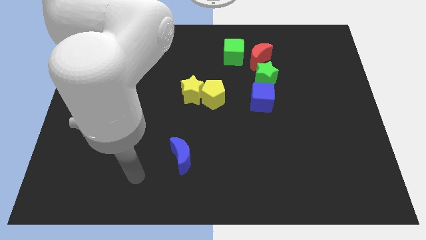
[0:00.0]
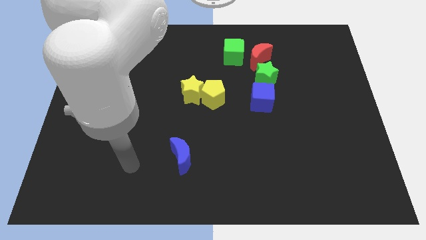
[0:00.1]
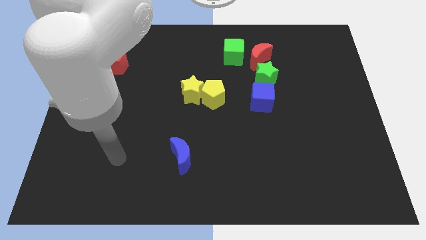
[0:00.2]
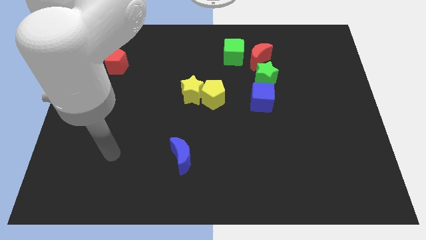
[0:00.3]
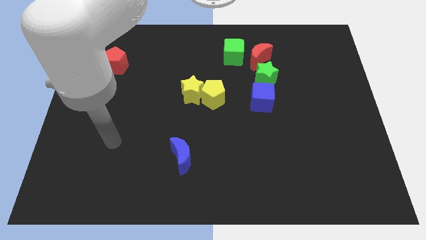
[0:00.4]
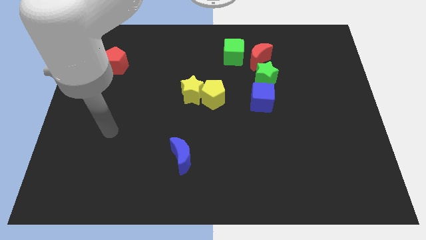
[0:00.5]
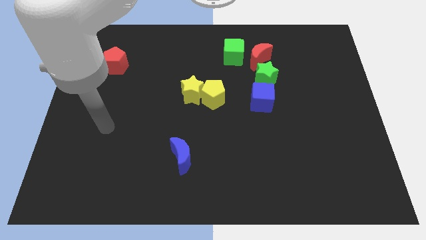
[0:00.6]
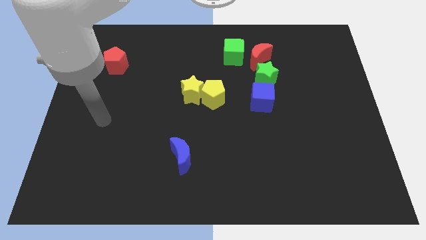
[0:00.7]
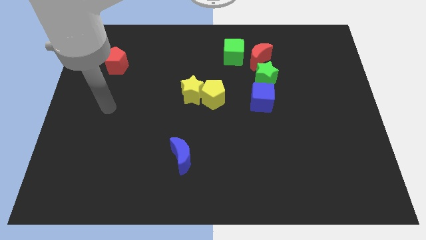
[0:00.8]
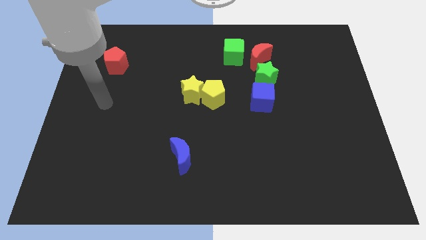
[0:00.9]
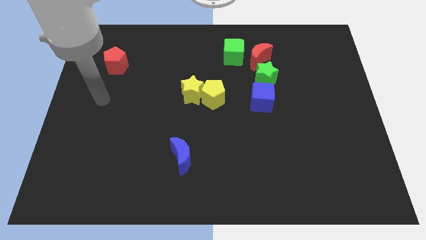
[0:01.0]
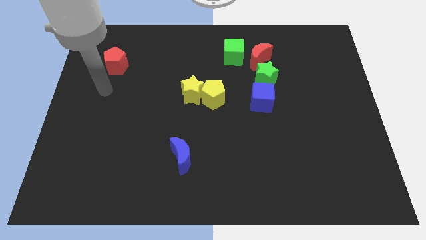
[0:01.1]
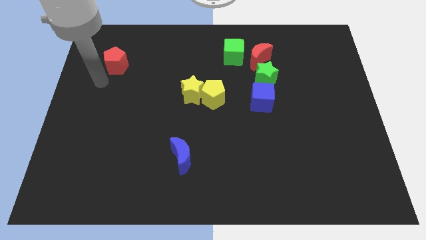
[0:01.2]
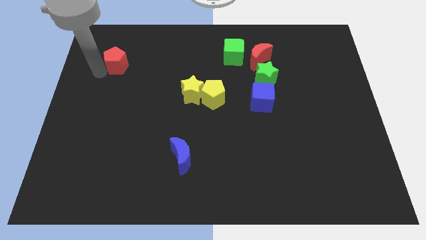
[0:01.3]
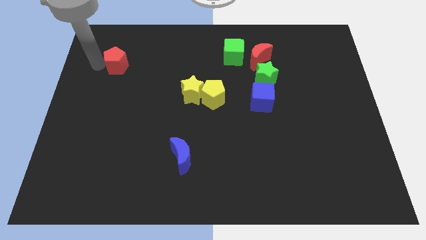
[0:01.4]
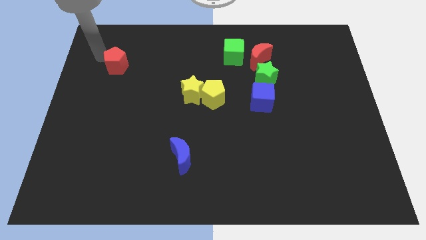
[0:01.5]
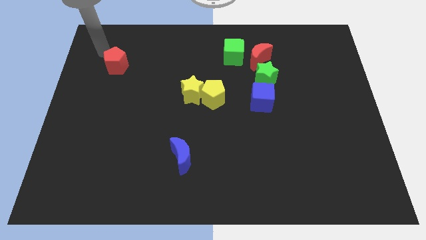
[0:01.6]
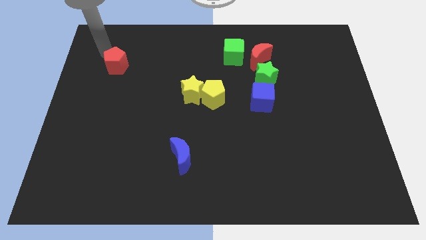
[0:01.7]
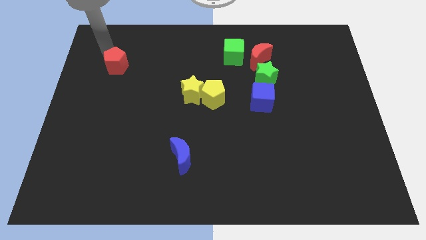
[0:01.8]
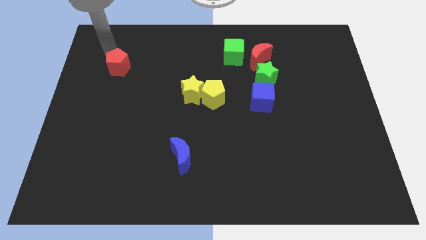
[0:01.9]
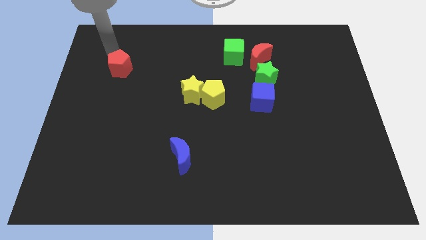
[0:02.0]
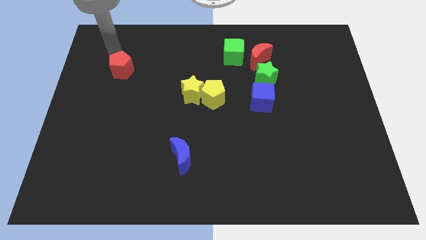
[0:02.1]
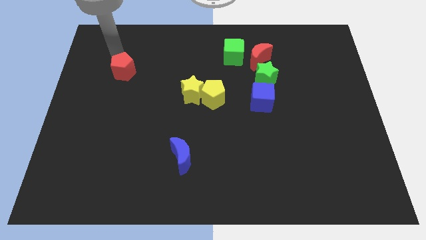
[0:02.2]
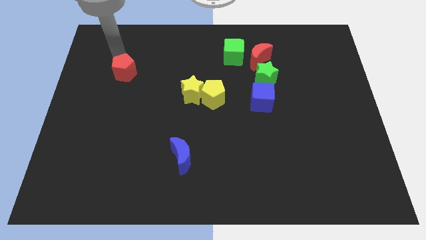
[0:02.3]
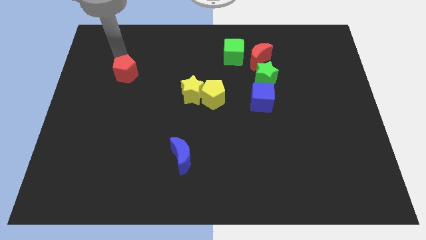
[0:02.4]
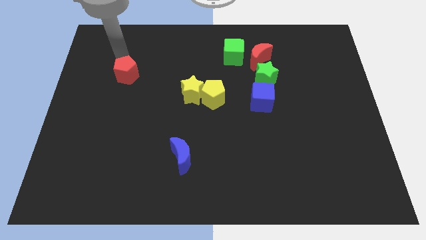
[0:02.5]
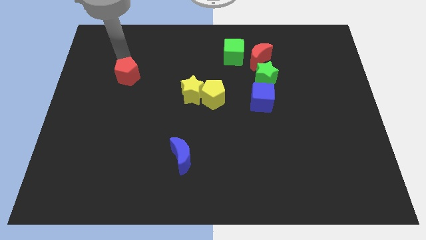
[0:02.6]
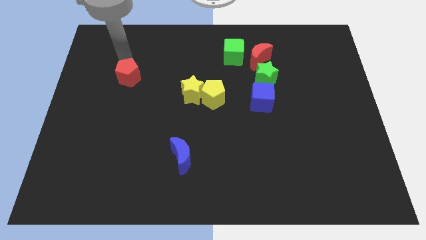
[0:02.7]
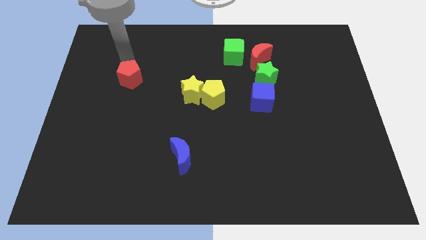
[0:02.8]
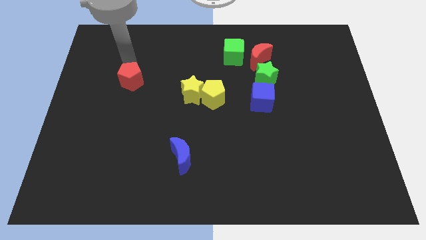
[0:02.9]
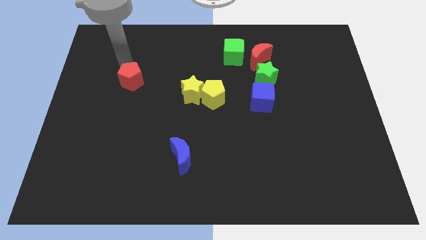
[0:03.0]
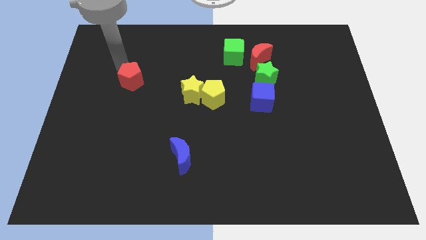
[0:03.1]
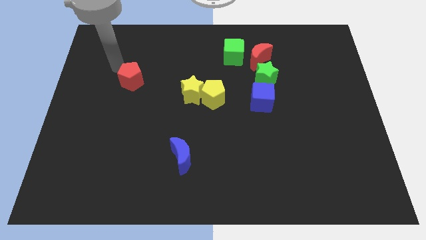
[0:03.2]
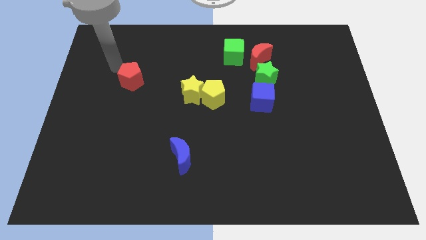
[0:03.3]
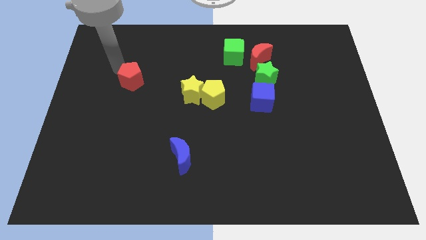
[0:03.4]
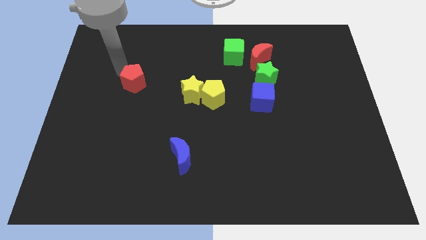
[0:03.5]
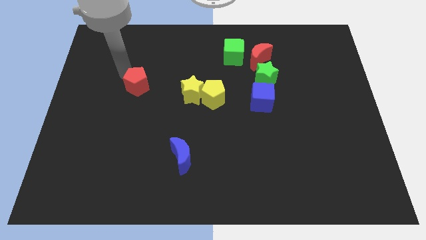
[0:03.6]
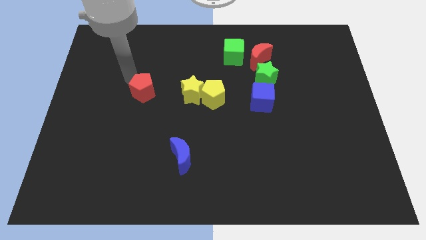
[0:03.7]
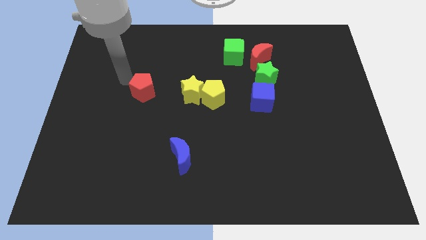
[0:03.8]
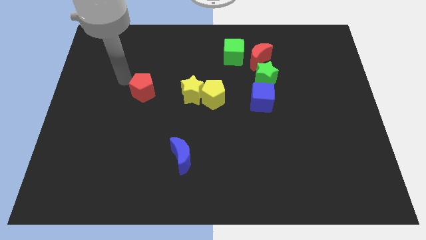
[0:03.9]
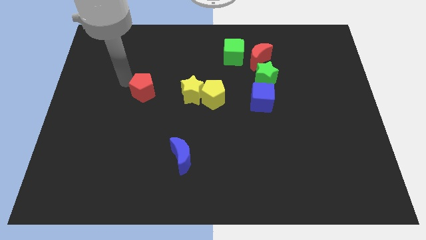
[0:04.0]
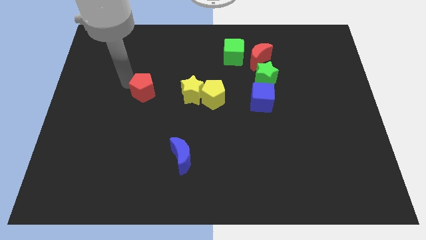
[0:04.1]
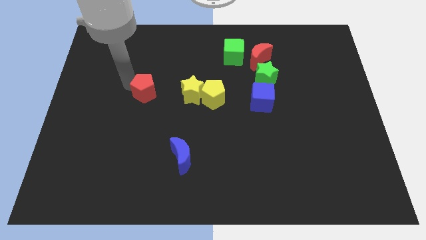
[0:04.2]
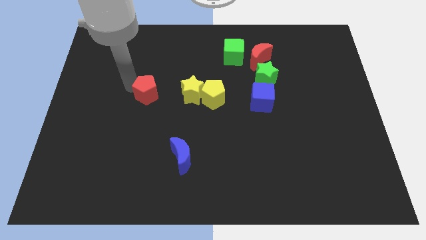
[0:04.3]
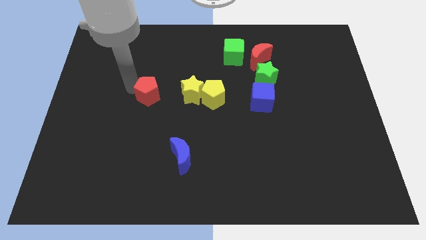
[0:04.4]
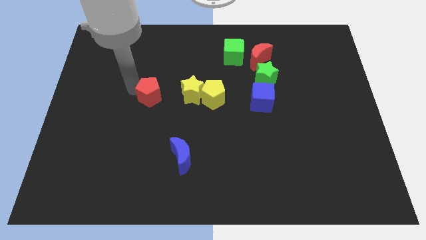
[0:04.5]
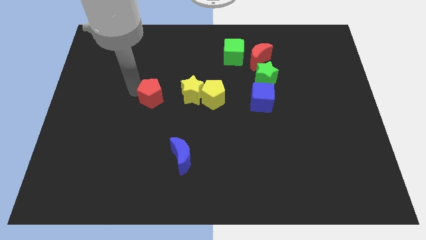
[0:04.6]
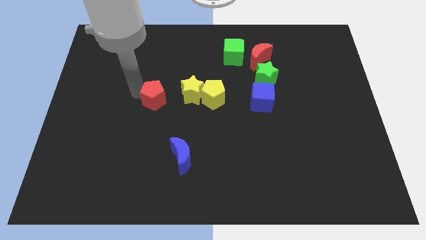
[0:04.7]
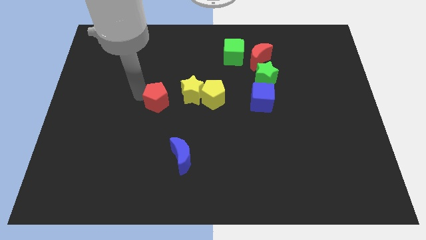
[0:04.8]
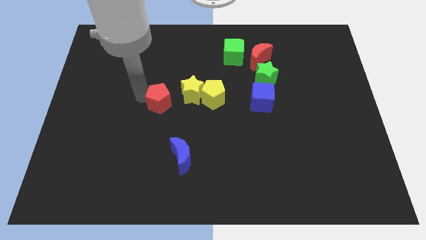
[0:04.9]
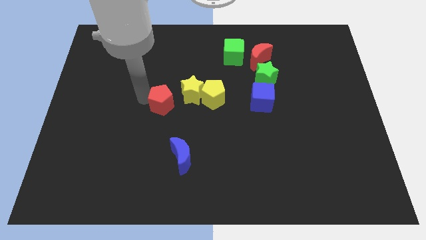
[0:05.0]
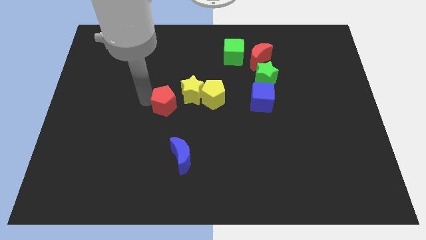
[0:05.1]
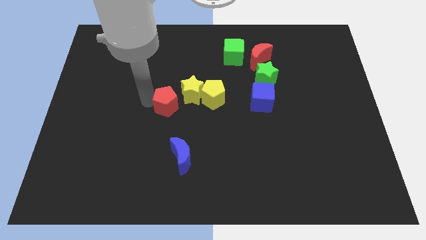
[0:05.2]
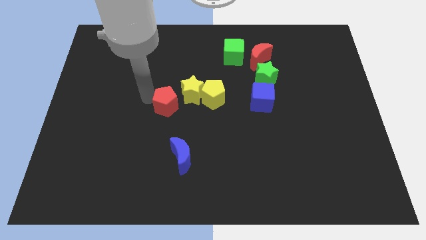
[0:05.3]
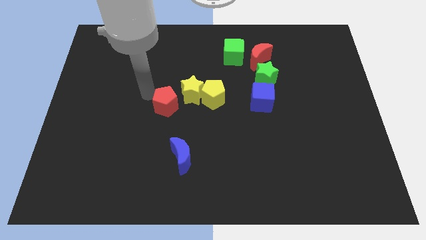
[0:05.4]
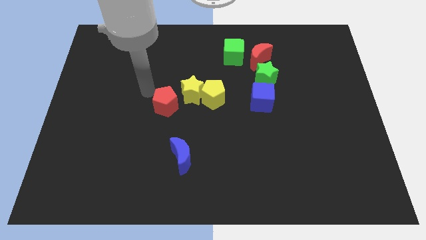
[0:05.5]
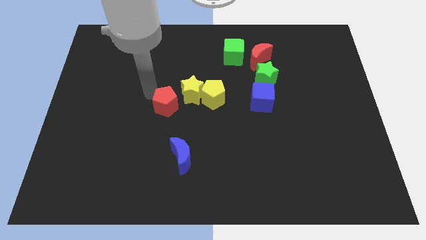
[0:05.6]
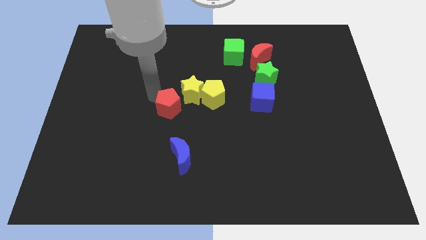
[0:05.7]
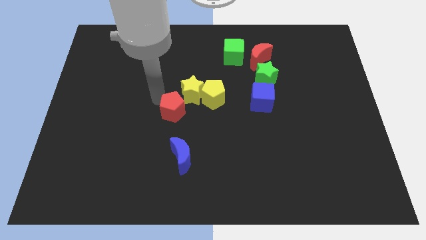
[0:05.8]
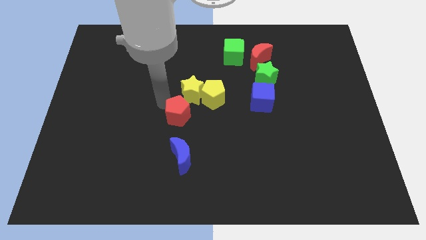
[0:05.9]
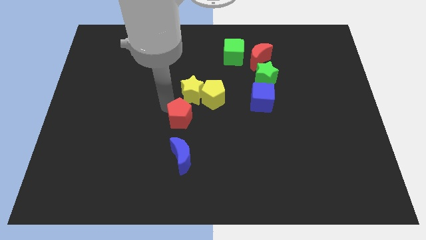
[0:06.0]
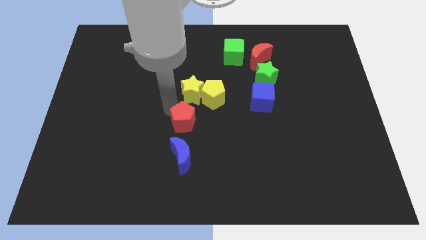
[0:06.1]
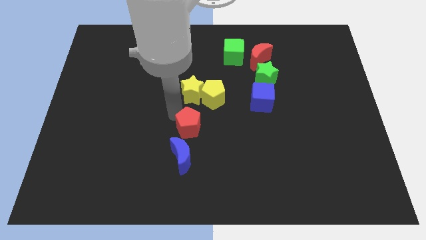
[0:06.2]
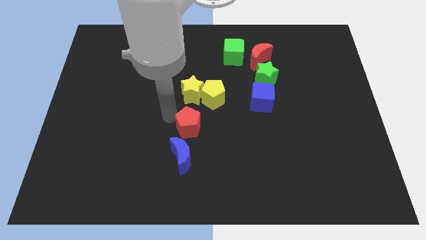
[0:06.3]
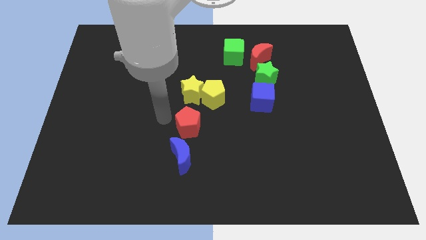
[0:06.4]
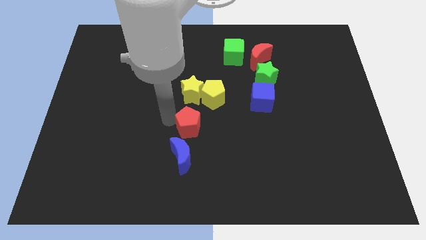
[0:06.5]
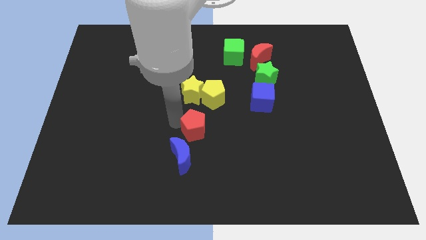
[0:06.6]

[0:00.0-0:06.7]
push the red pentagon to the bottom of the yellow pentagon

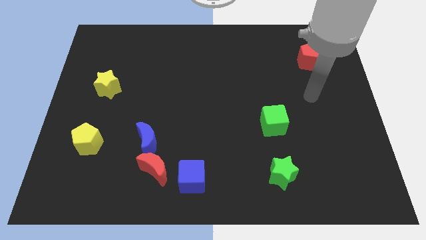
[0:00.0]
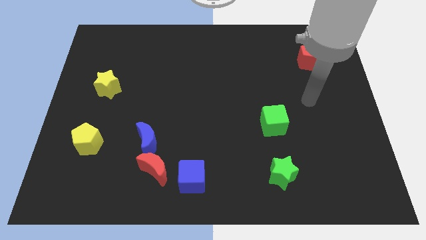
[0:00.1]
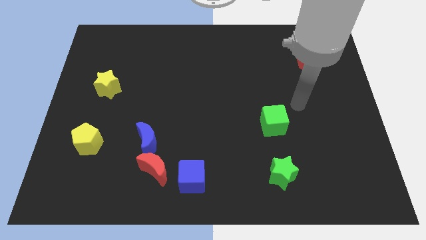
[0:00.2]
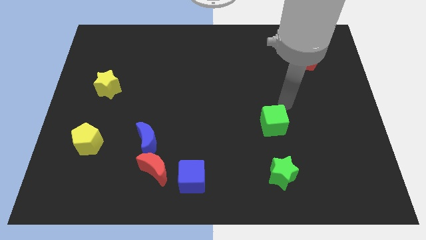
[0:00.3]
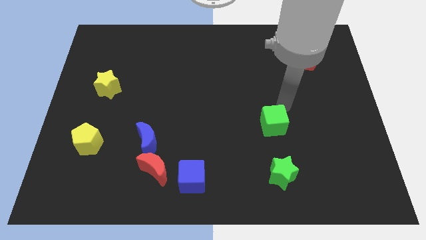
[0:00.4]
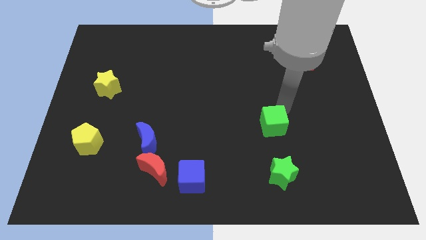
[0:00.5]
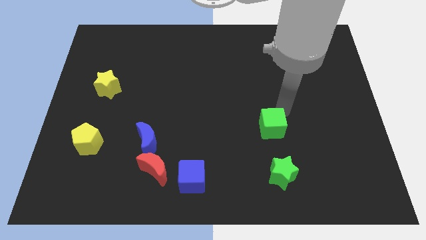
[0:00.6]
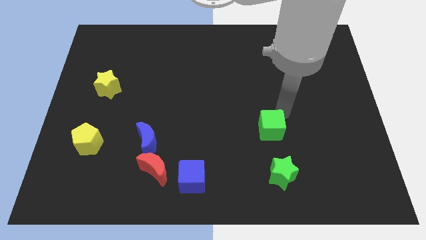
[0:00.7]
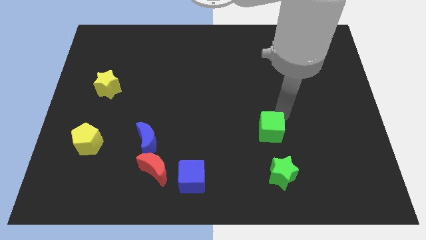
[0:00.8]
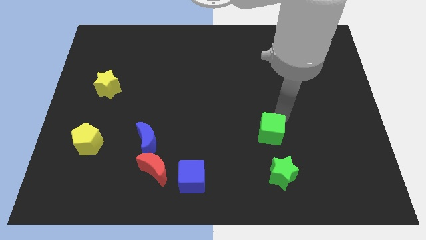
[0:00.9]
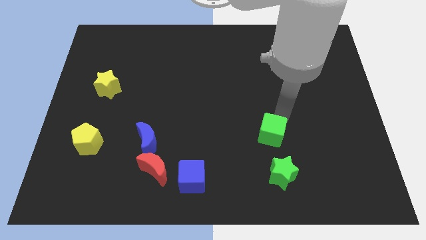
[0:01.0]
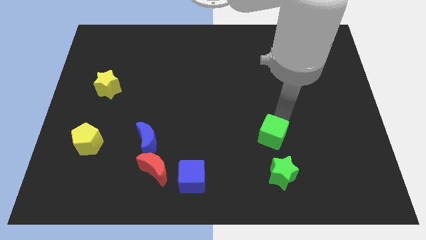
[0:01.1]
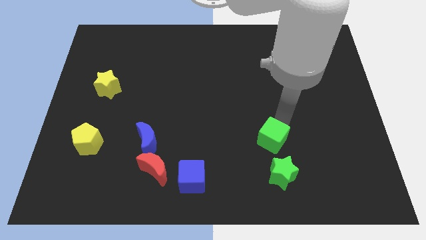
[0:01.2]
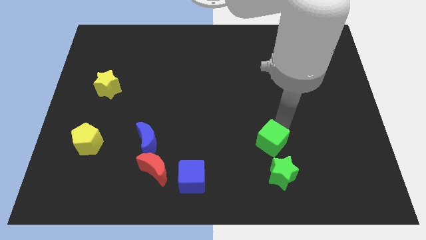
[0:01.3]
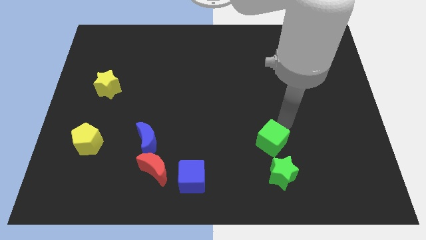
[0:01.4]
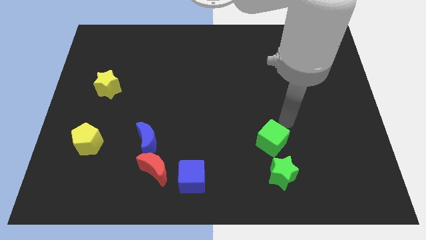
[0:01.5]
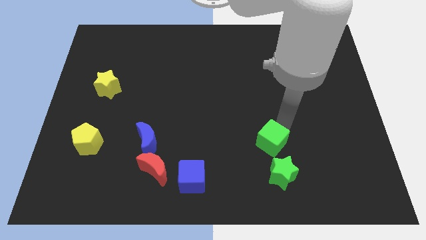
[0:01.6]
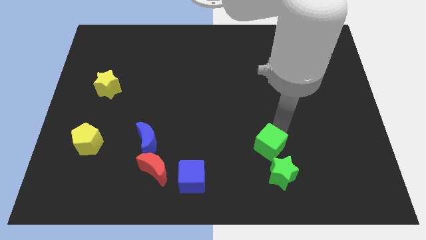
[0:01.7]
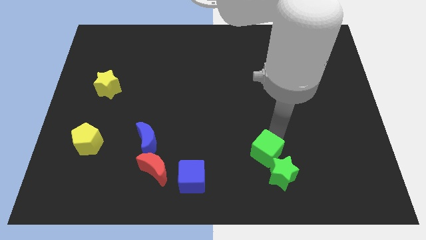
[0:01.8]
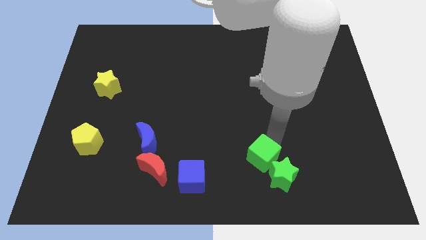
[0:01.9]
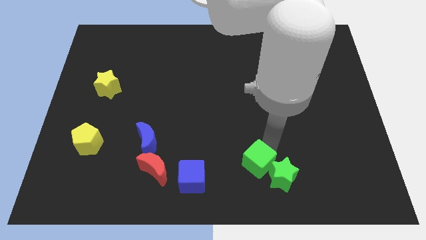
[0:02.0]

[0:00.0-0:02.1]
put the green cube to the right side of the blue cube
